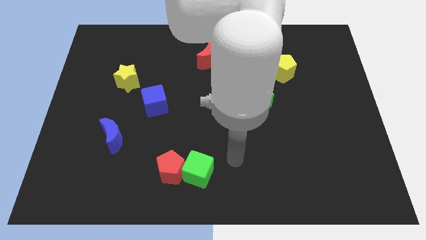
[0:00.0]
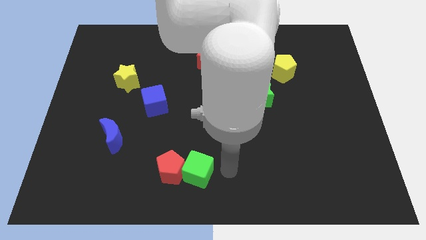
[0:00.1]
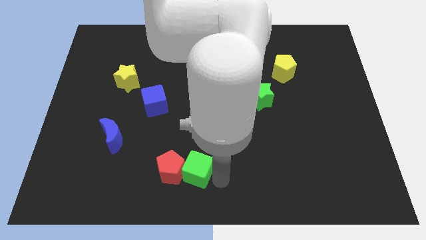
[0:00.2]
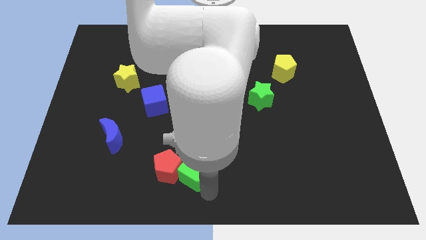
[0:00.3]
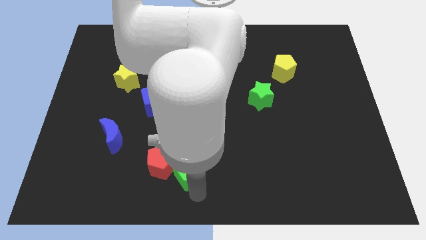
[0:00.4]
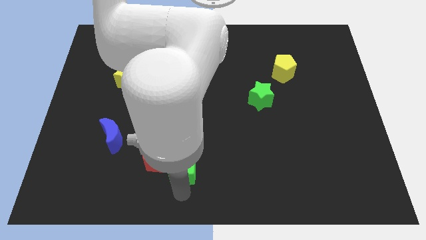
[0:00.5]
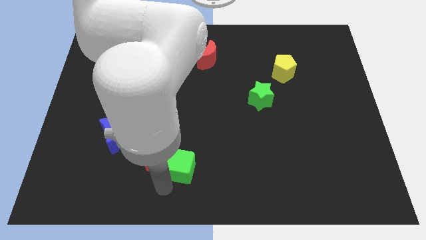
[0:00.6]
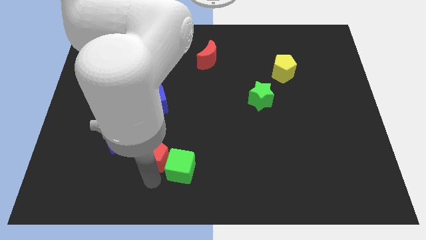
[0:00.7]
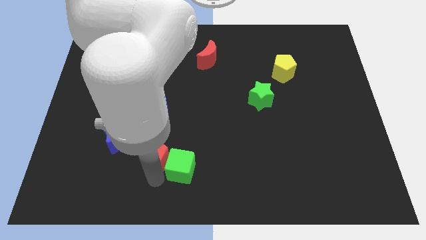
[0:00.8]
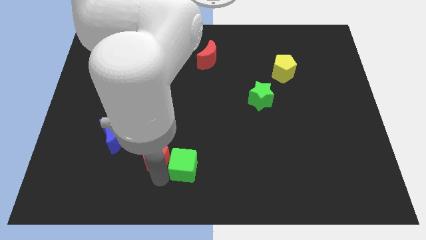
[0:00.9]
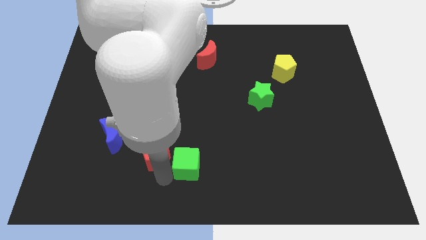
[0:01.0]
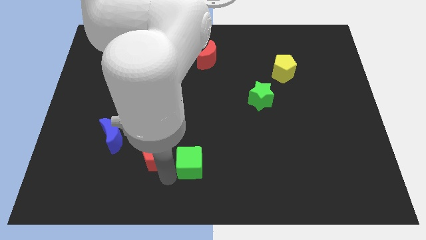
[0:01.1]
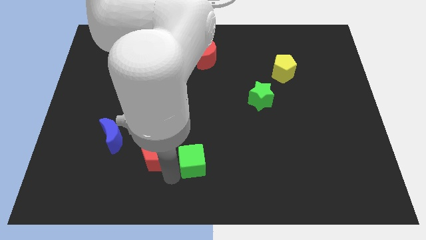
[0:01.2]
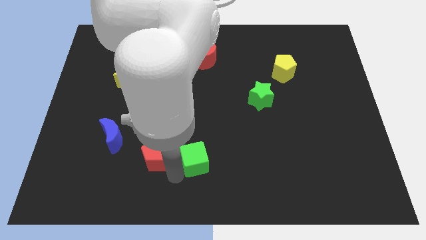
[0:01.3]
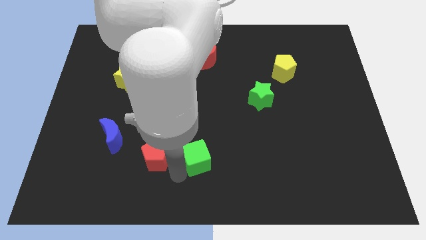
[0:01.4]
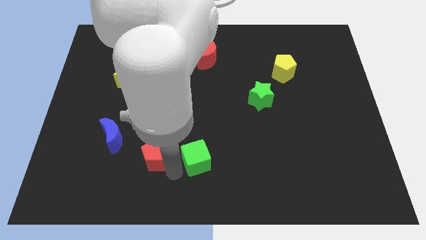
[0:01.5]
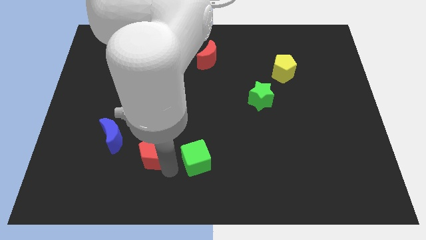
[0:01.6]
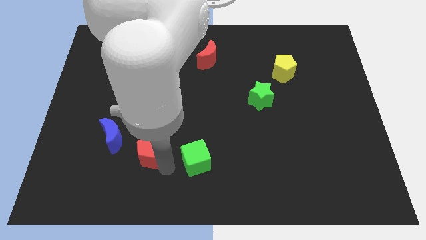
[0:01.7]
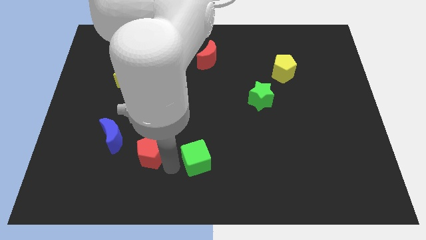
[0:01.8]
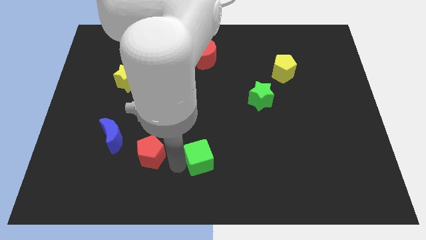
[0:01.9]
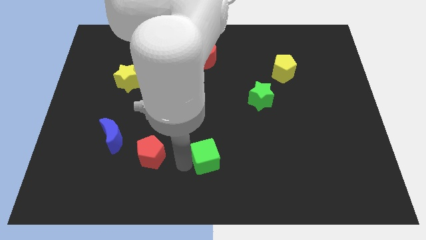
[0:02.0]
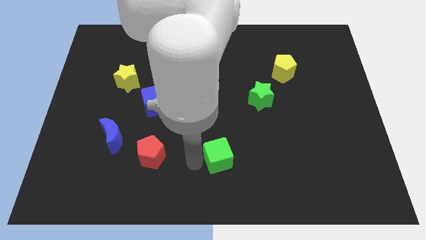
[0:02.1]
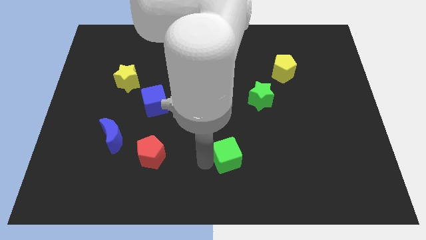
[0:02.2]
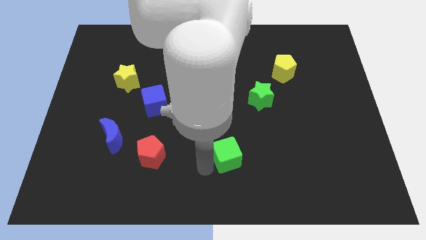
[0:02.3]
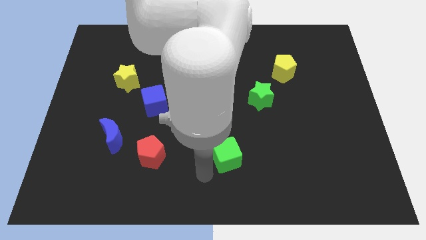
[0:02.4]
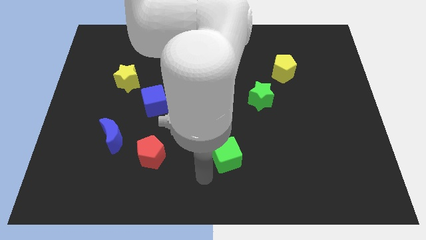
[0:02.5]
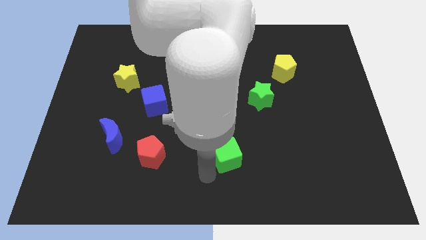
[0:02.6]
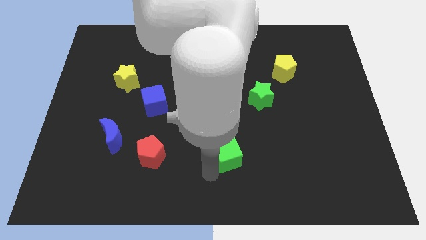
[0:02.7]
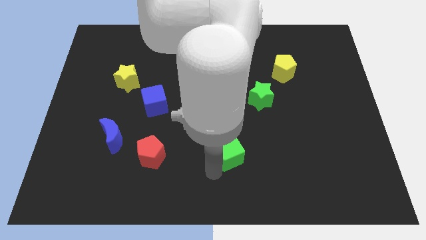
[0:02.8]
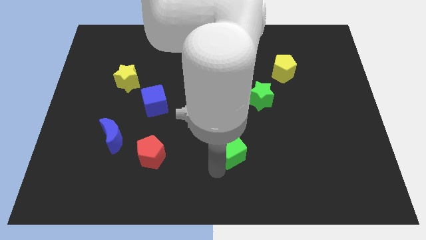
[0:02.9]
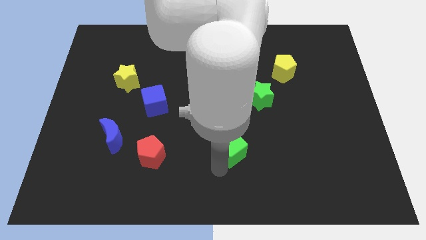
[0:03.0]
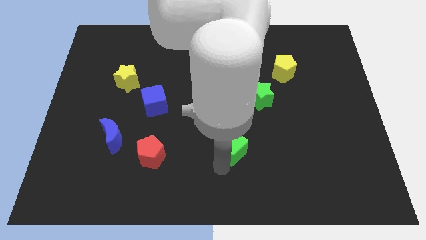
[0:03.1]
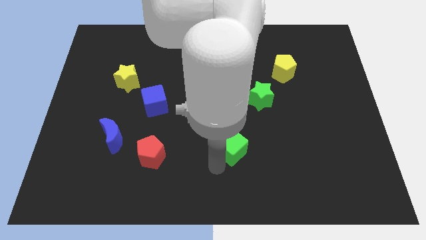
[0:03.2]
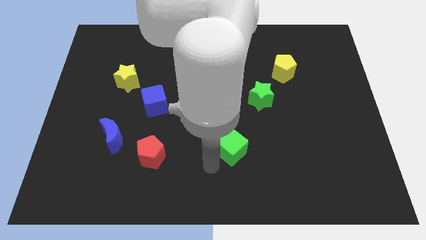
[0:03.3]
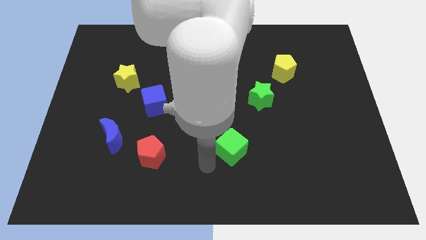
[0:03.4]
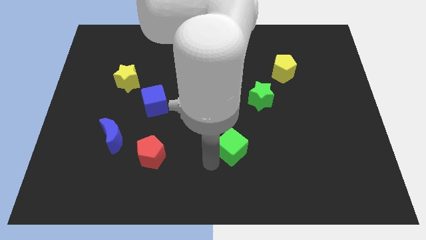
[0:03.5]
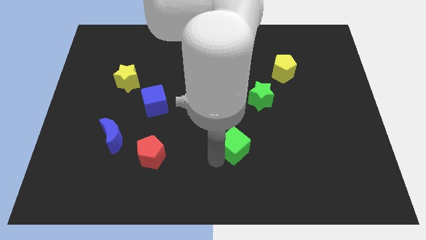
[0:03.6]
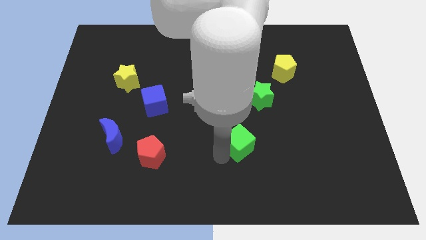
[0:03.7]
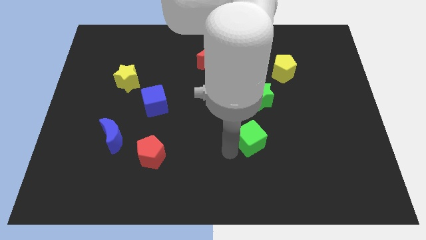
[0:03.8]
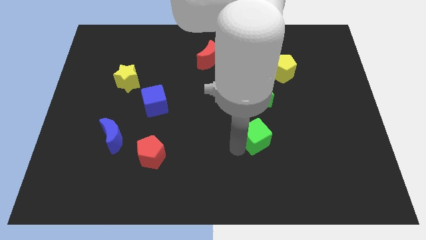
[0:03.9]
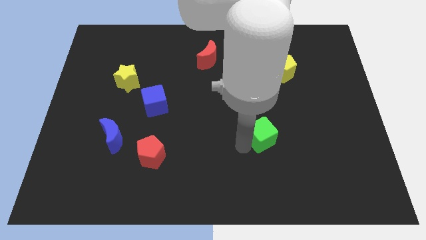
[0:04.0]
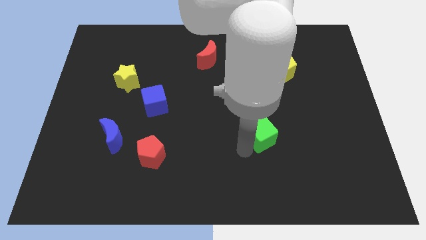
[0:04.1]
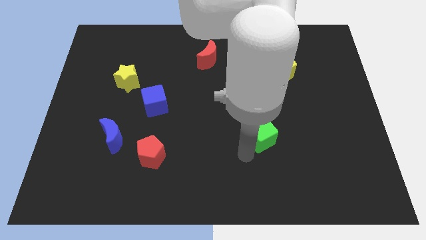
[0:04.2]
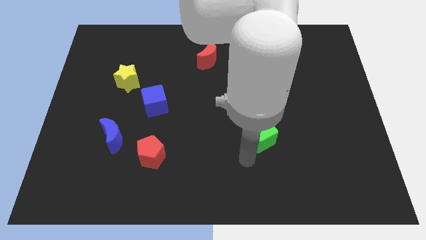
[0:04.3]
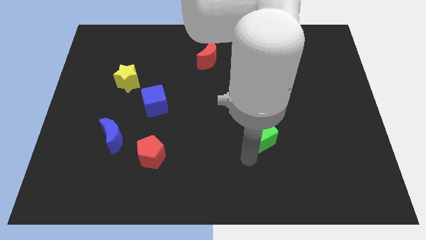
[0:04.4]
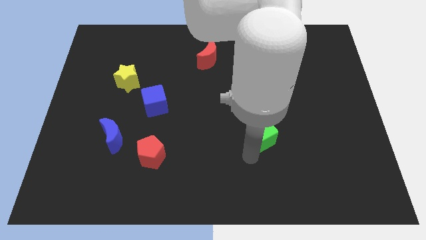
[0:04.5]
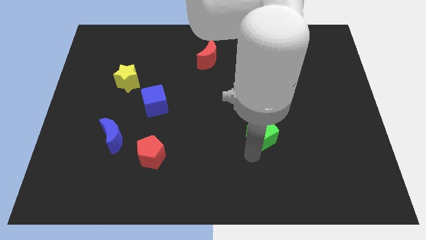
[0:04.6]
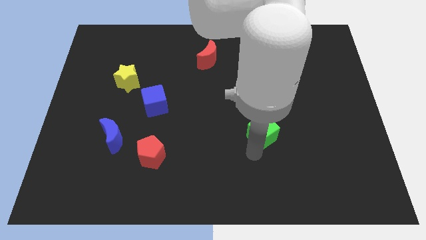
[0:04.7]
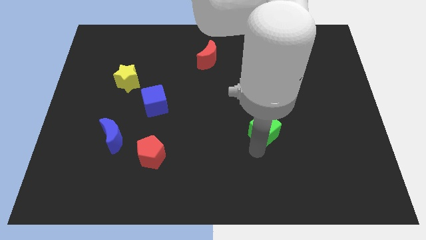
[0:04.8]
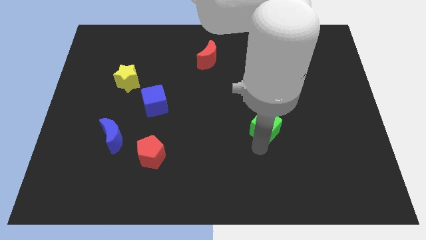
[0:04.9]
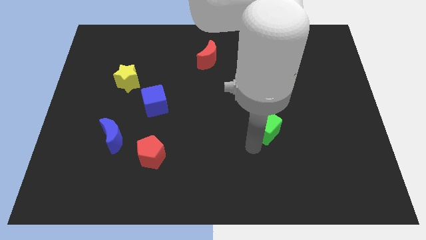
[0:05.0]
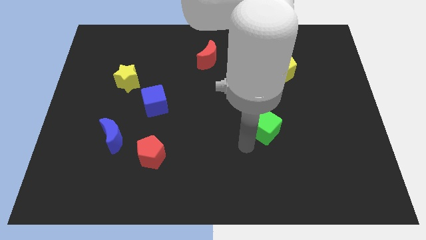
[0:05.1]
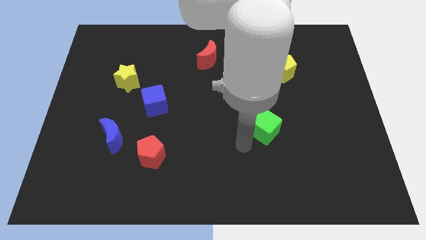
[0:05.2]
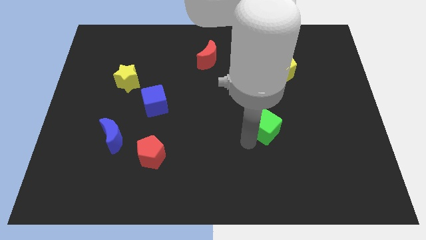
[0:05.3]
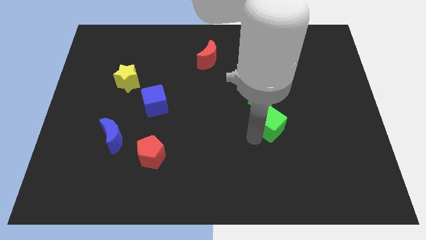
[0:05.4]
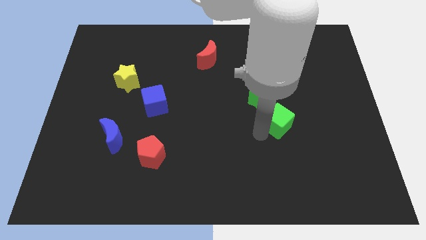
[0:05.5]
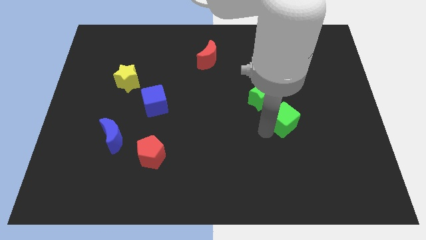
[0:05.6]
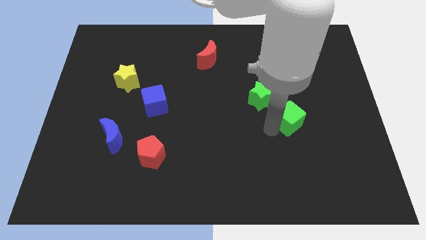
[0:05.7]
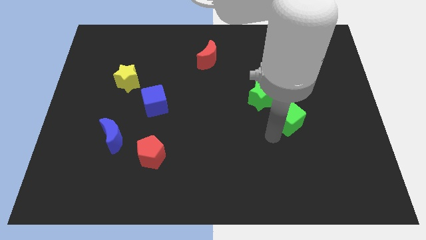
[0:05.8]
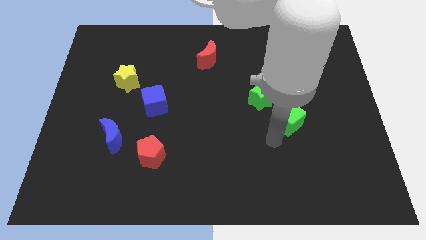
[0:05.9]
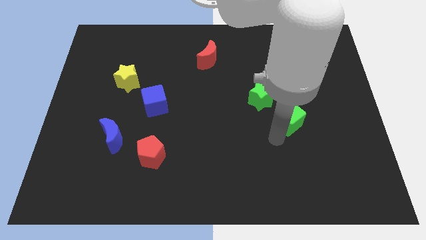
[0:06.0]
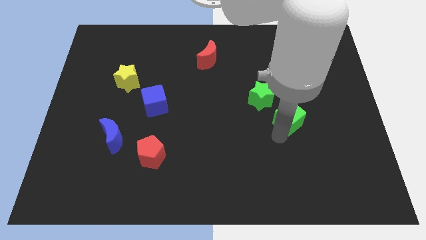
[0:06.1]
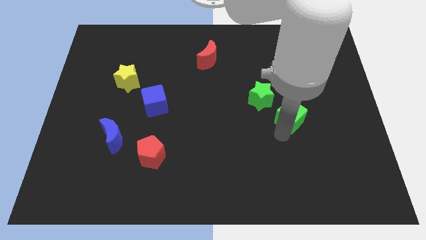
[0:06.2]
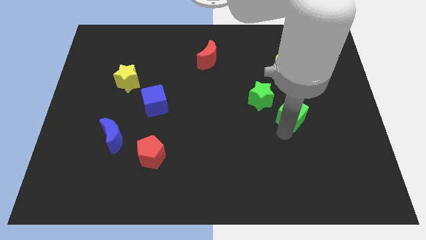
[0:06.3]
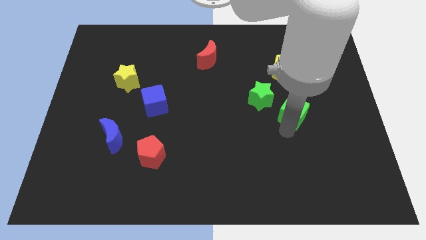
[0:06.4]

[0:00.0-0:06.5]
push the green cube just right of the green star

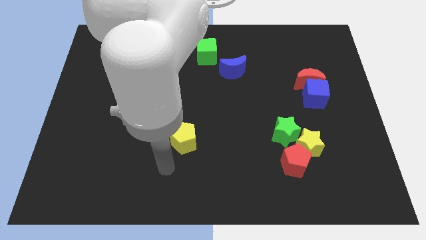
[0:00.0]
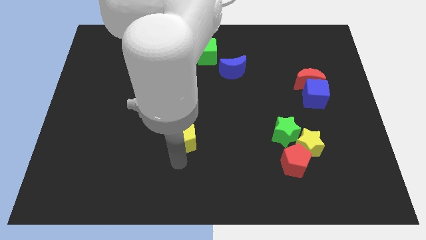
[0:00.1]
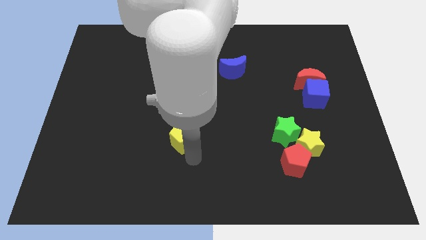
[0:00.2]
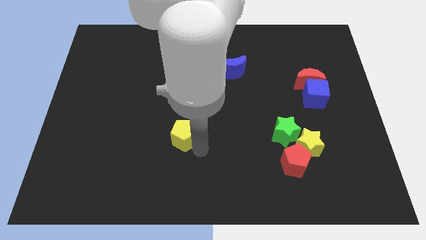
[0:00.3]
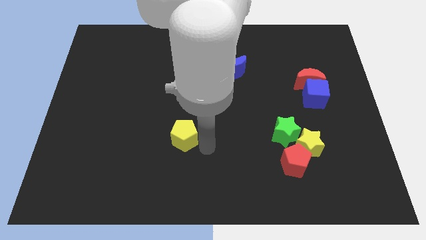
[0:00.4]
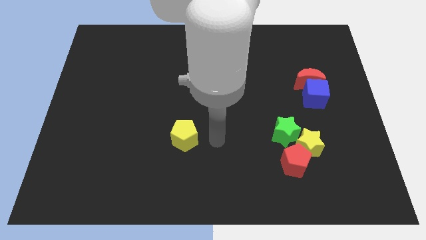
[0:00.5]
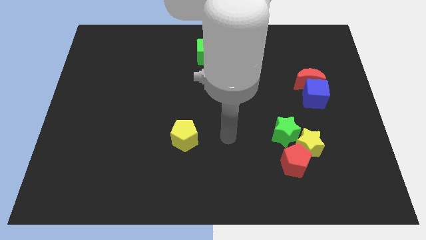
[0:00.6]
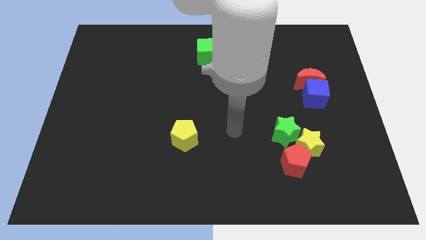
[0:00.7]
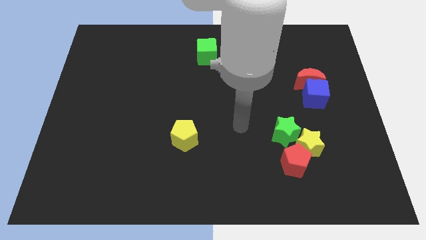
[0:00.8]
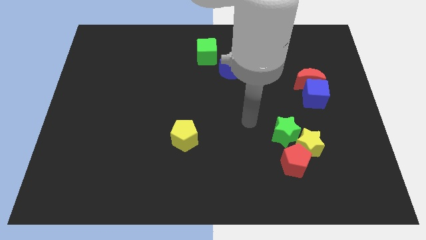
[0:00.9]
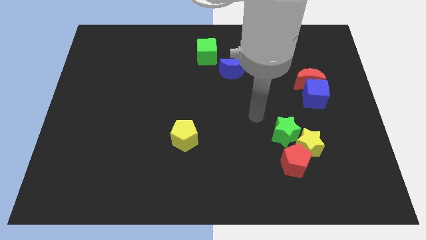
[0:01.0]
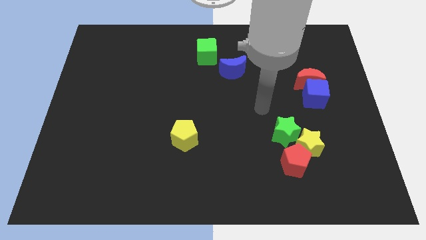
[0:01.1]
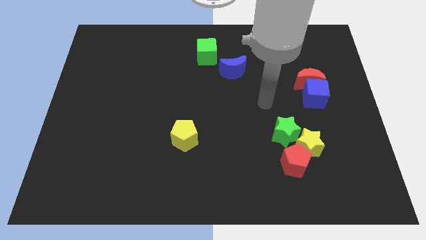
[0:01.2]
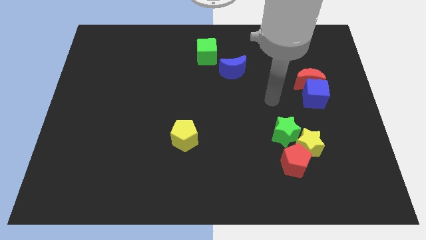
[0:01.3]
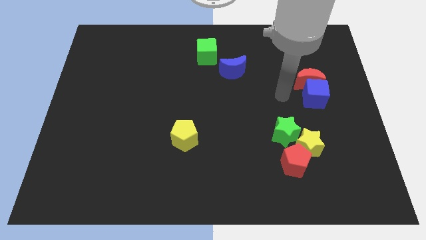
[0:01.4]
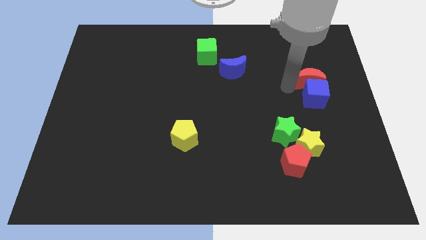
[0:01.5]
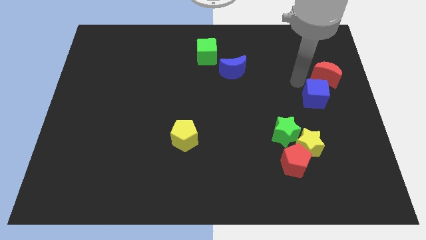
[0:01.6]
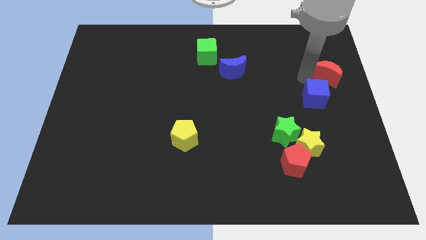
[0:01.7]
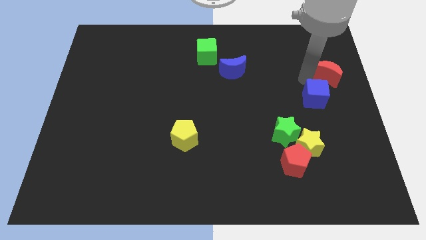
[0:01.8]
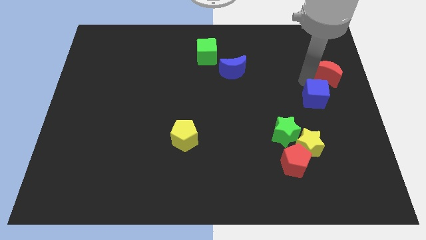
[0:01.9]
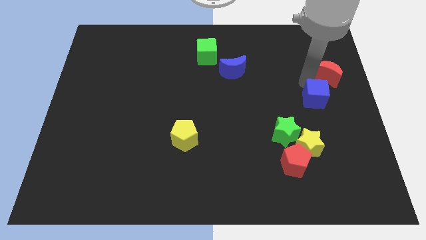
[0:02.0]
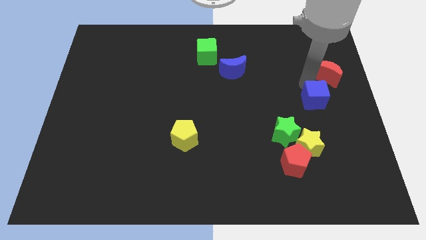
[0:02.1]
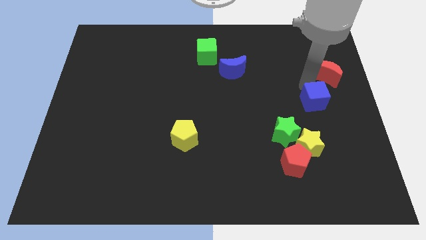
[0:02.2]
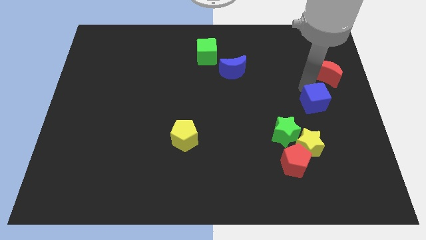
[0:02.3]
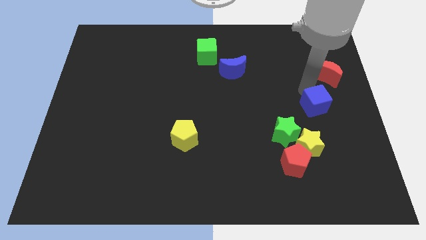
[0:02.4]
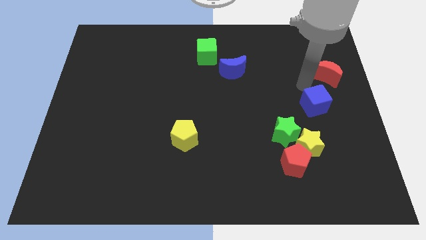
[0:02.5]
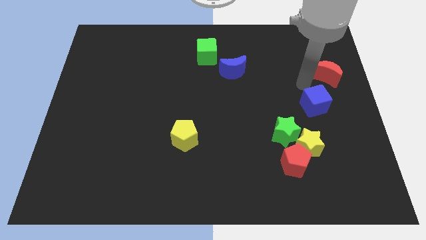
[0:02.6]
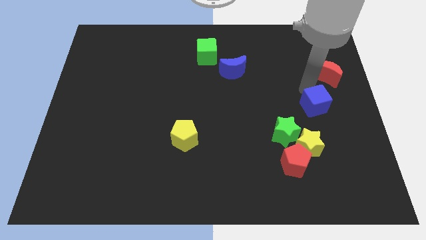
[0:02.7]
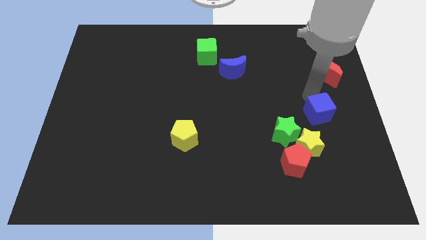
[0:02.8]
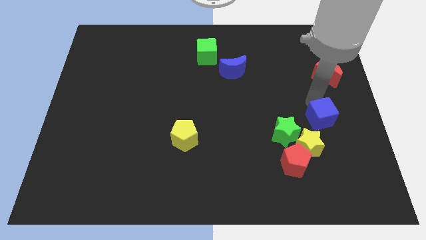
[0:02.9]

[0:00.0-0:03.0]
slide the blue cube to the right of the green star
